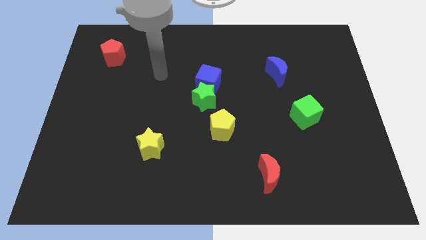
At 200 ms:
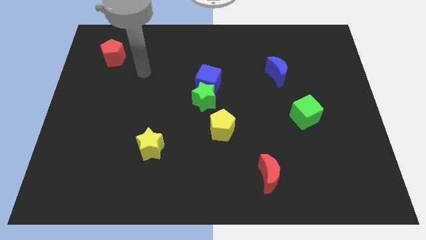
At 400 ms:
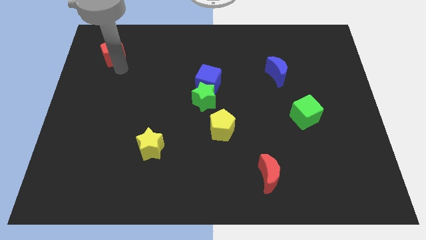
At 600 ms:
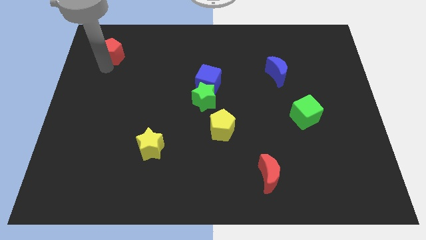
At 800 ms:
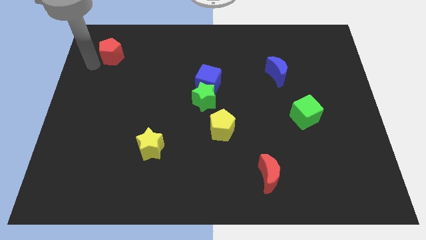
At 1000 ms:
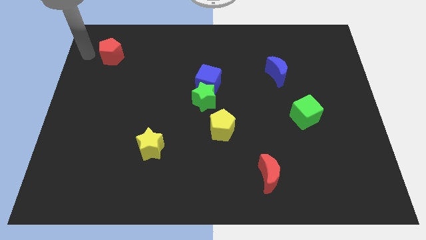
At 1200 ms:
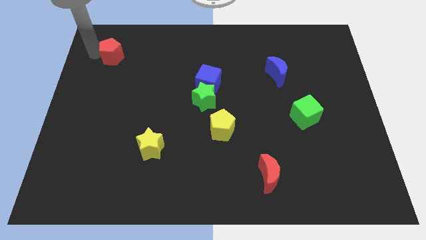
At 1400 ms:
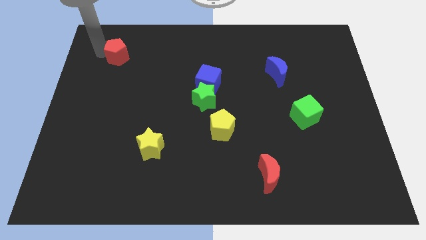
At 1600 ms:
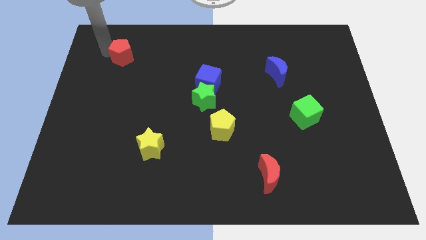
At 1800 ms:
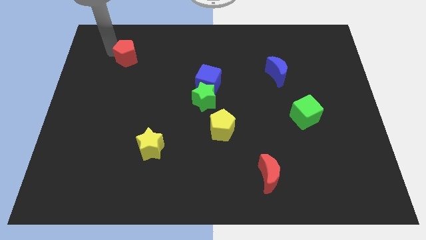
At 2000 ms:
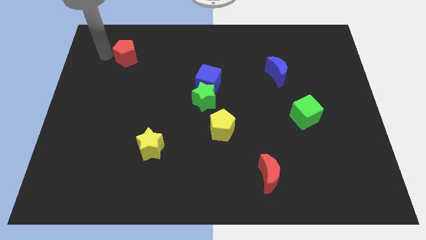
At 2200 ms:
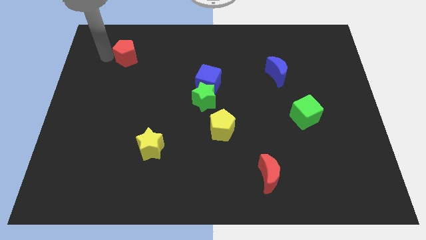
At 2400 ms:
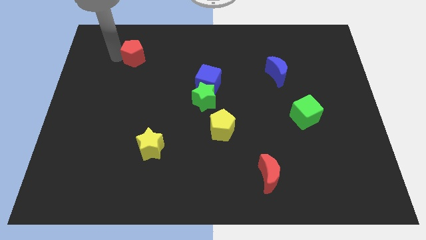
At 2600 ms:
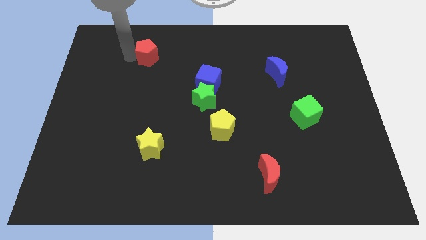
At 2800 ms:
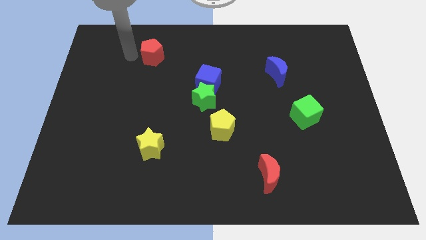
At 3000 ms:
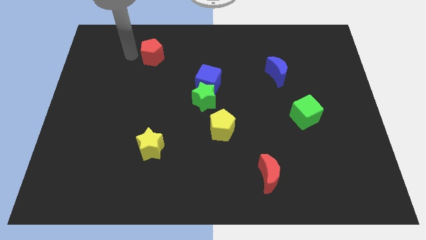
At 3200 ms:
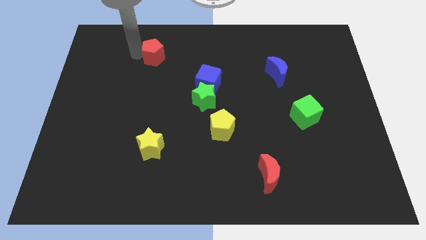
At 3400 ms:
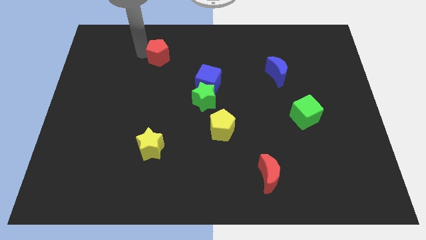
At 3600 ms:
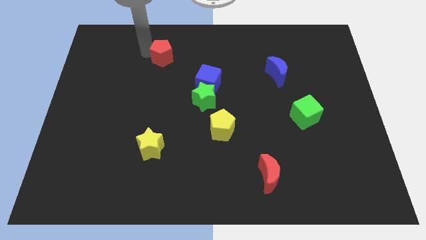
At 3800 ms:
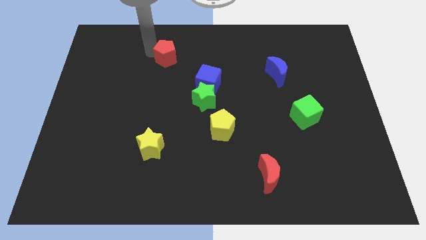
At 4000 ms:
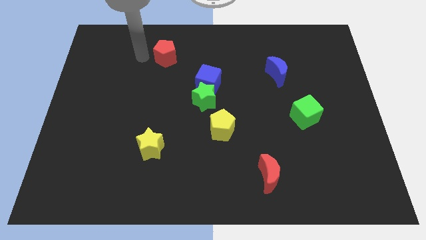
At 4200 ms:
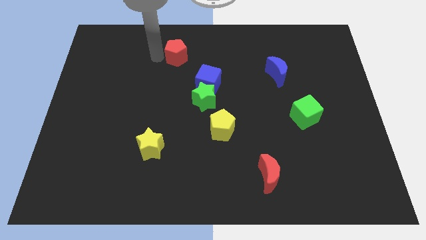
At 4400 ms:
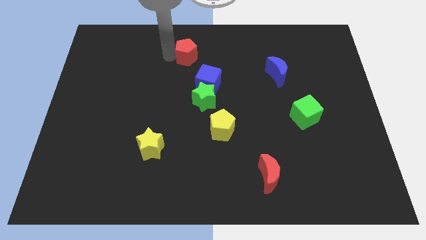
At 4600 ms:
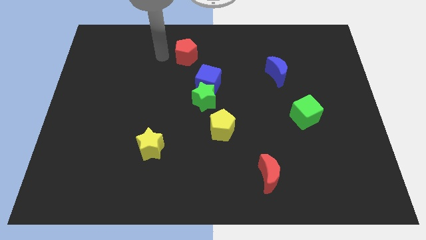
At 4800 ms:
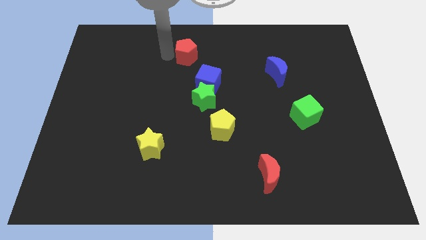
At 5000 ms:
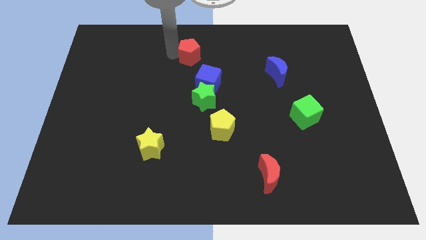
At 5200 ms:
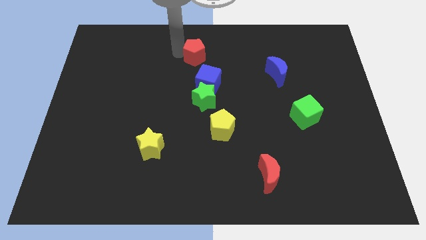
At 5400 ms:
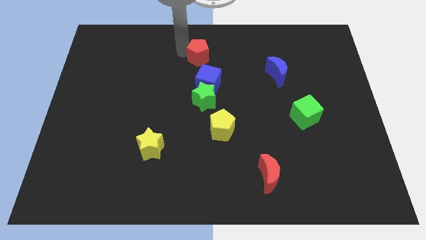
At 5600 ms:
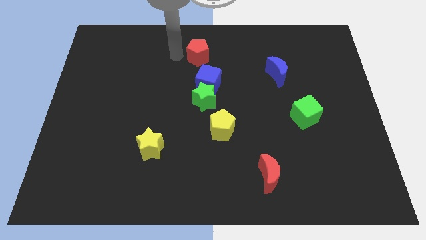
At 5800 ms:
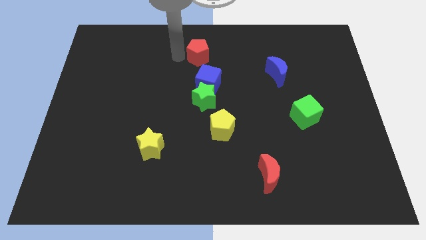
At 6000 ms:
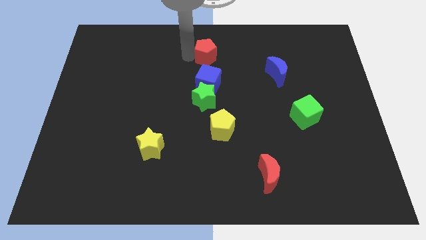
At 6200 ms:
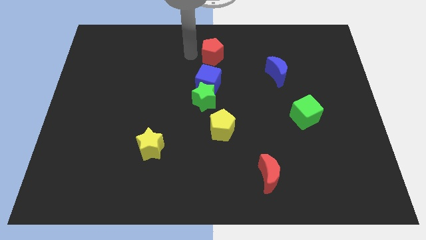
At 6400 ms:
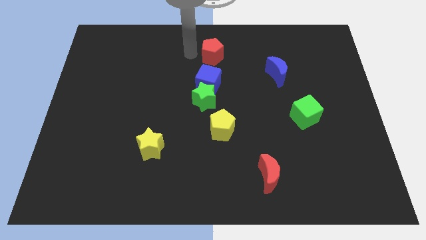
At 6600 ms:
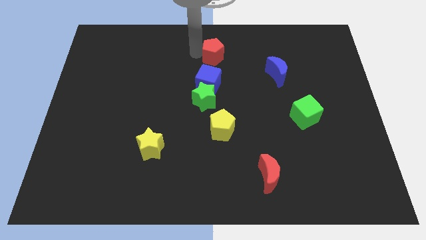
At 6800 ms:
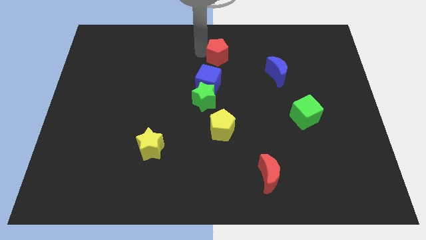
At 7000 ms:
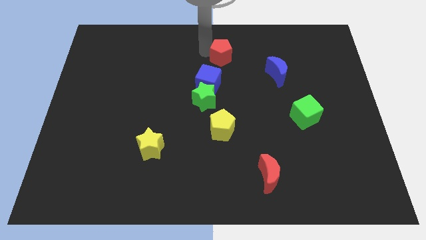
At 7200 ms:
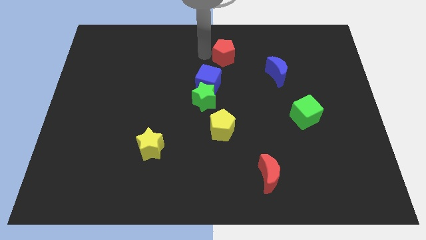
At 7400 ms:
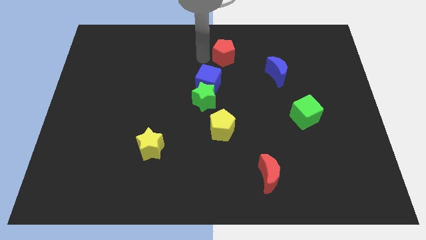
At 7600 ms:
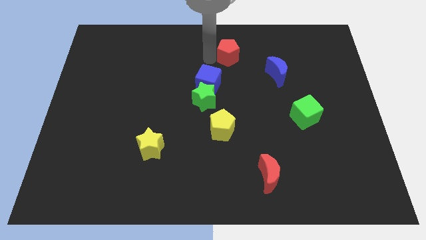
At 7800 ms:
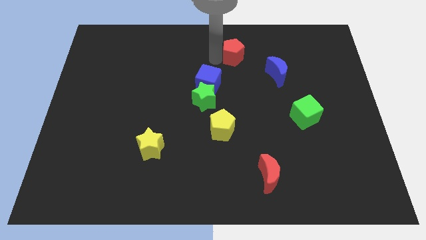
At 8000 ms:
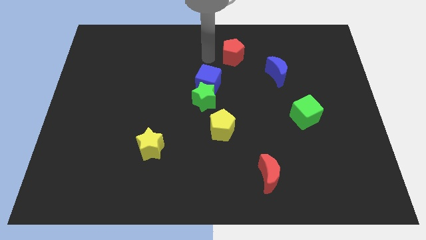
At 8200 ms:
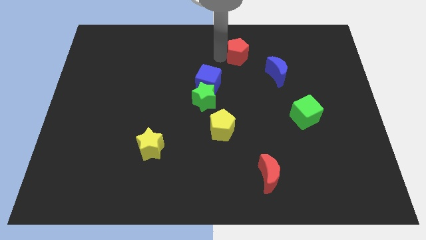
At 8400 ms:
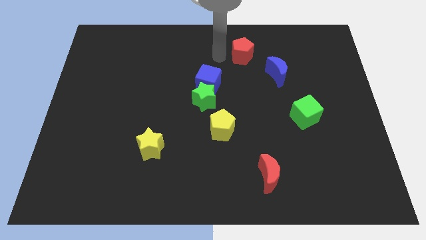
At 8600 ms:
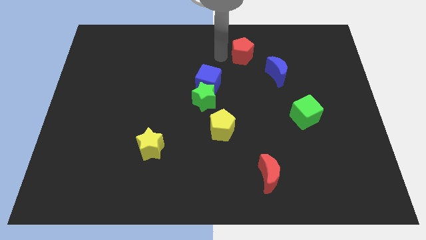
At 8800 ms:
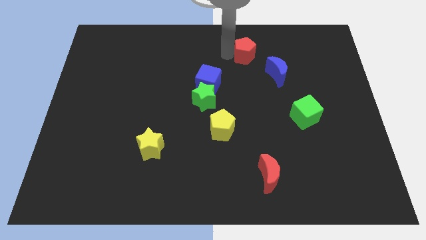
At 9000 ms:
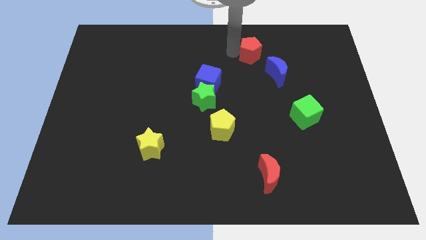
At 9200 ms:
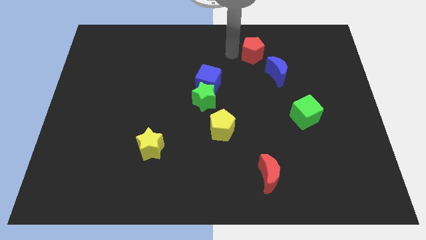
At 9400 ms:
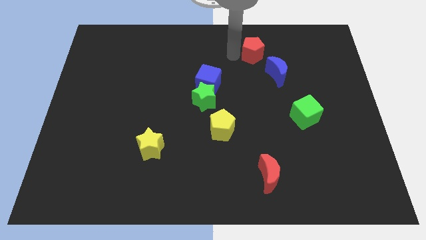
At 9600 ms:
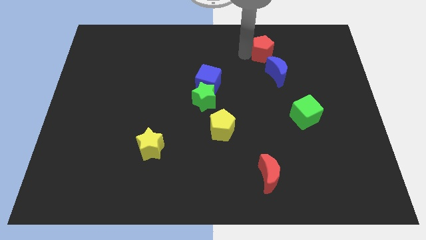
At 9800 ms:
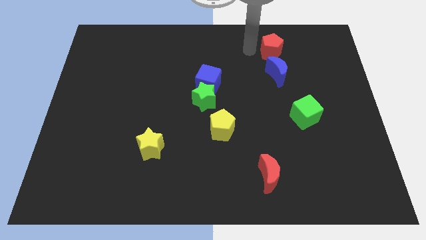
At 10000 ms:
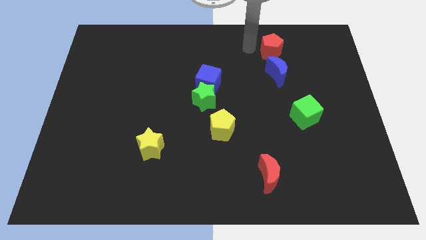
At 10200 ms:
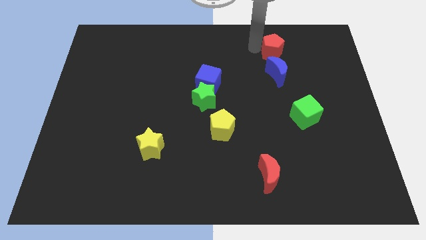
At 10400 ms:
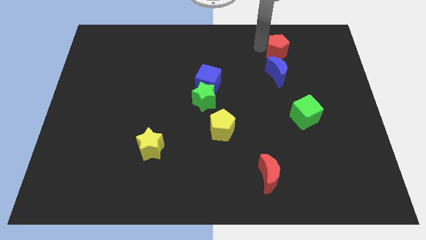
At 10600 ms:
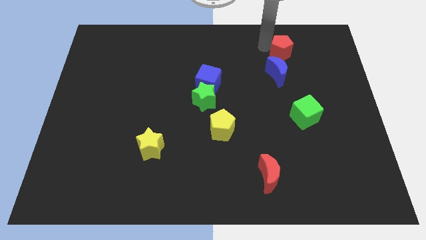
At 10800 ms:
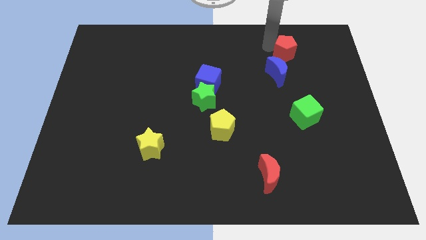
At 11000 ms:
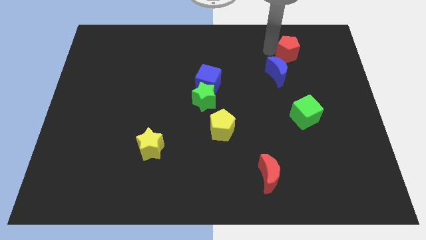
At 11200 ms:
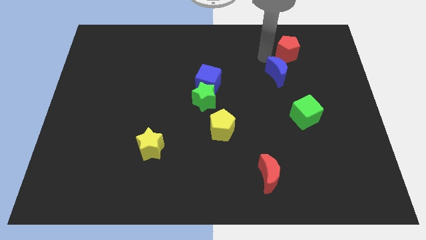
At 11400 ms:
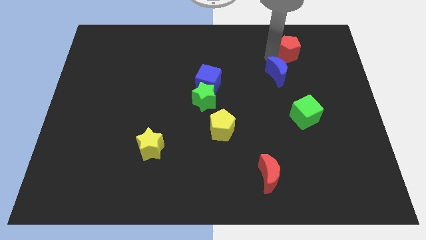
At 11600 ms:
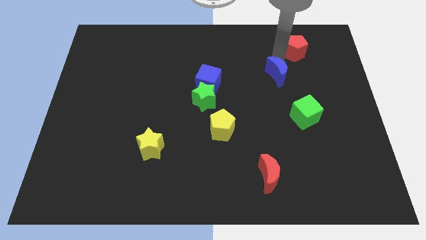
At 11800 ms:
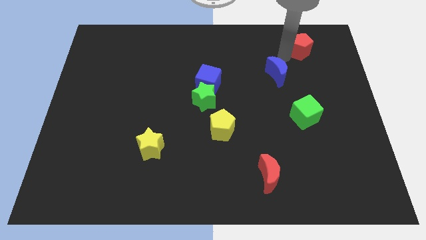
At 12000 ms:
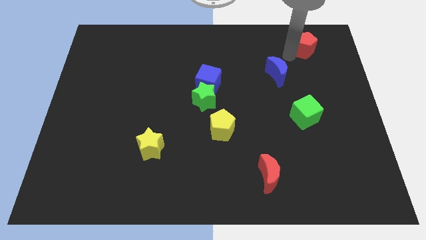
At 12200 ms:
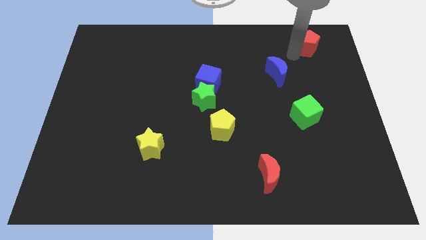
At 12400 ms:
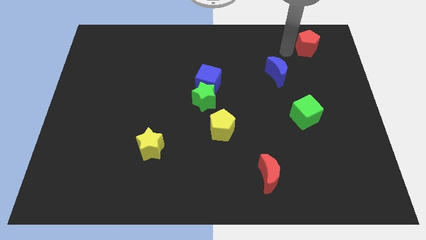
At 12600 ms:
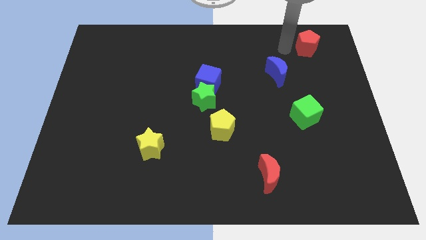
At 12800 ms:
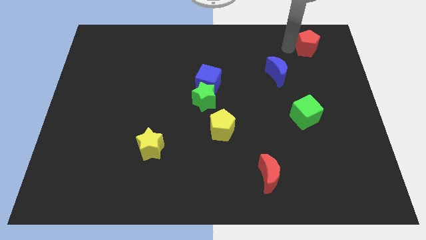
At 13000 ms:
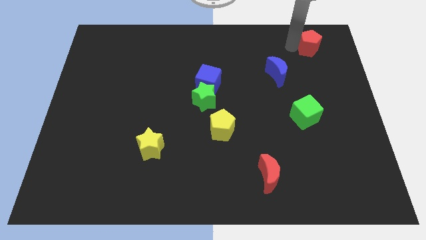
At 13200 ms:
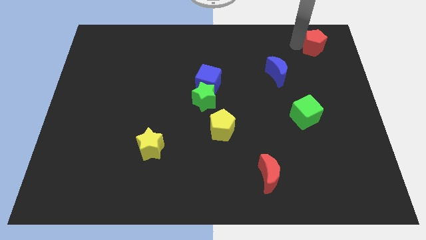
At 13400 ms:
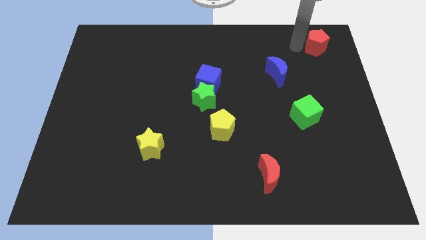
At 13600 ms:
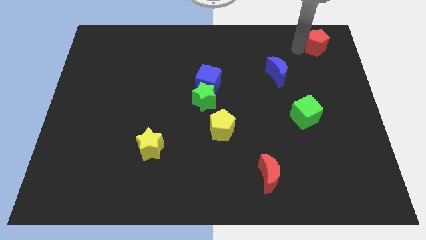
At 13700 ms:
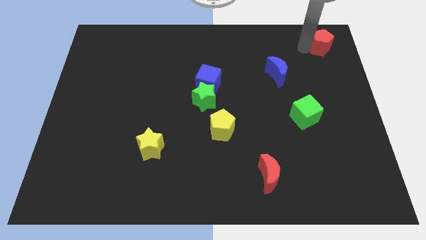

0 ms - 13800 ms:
slide the red pentagon to the top right of the board
